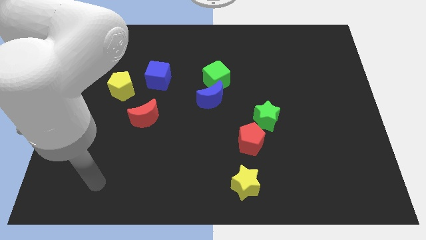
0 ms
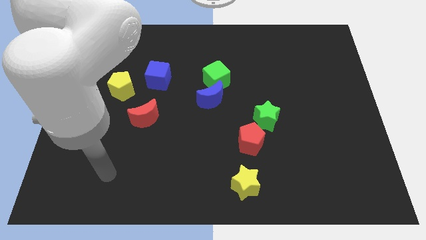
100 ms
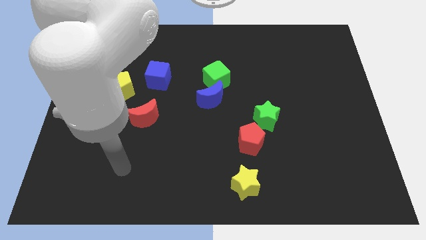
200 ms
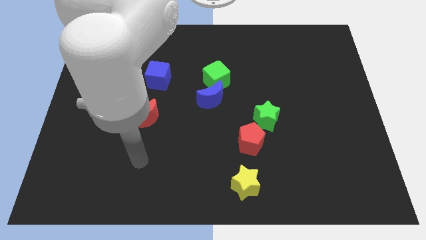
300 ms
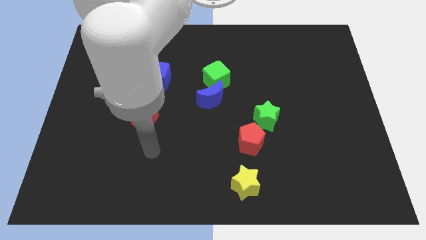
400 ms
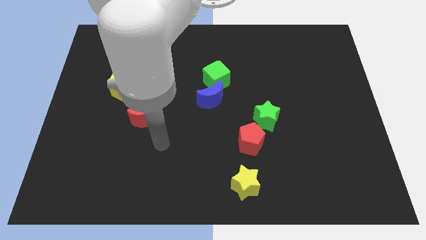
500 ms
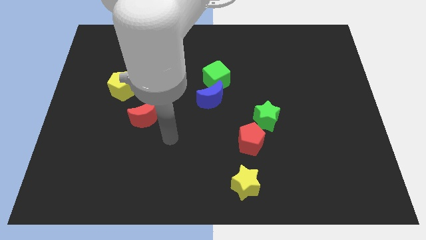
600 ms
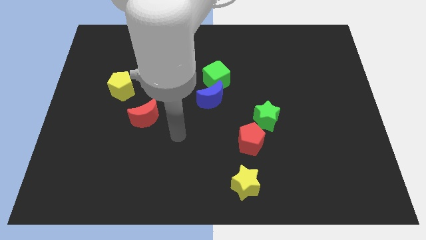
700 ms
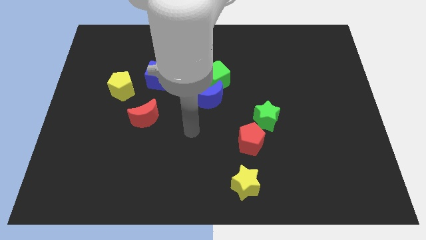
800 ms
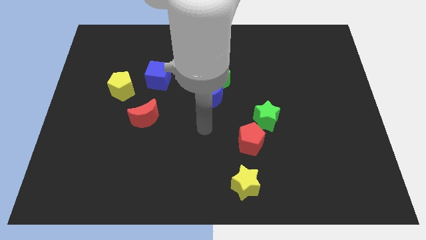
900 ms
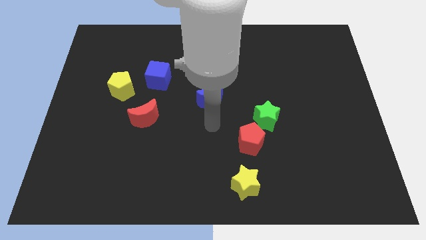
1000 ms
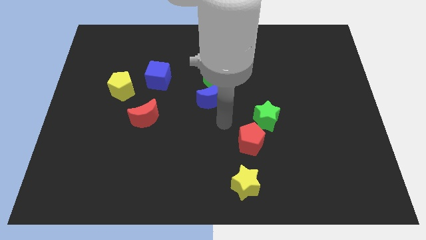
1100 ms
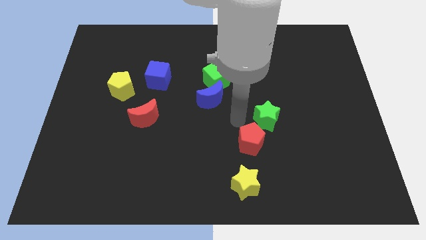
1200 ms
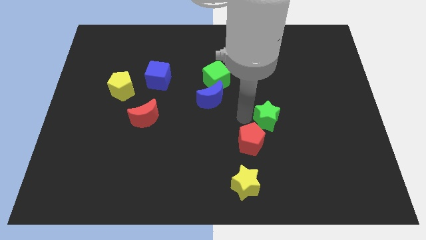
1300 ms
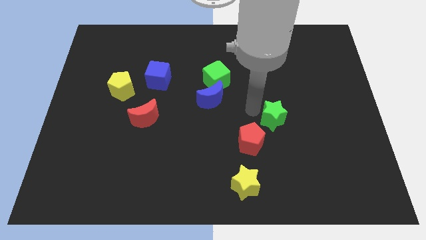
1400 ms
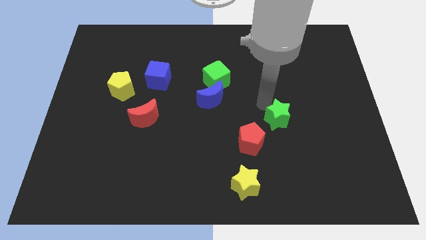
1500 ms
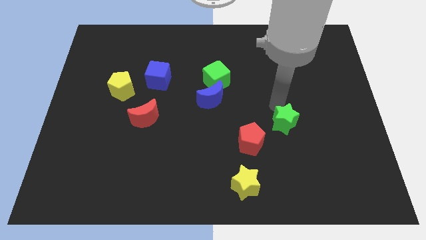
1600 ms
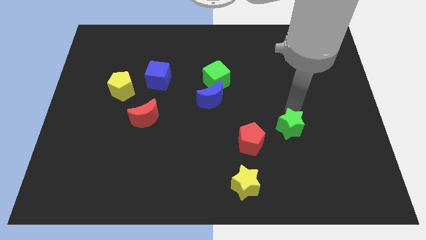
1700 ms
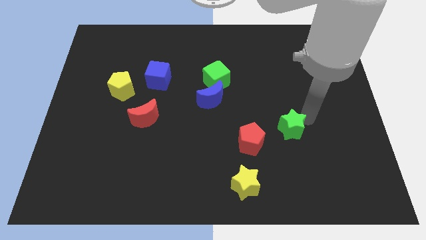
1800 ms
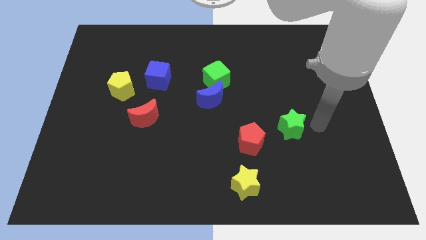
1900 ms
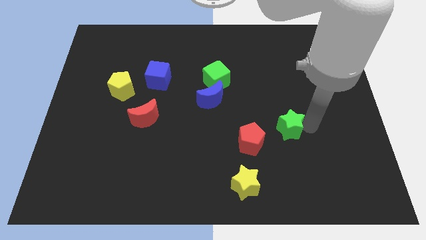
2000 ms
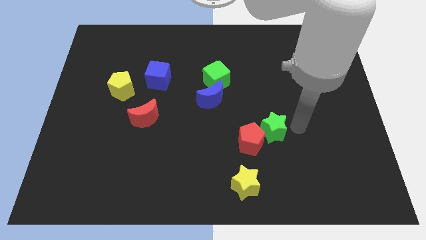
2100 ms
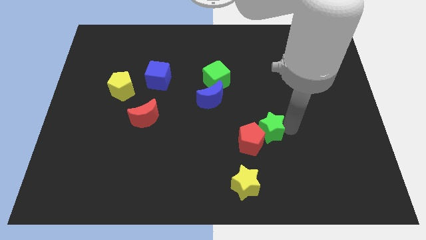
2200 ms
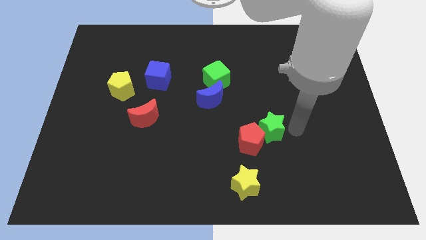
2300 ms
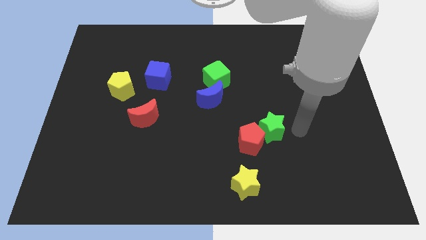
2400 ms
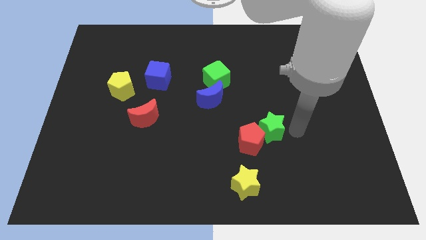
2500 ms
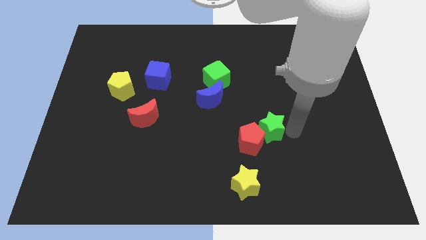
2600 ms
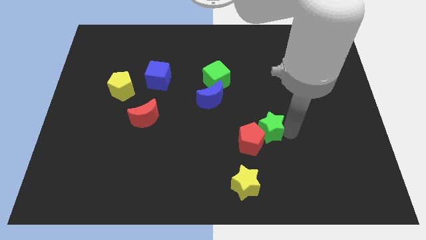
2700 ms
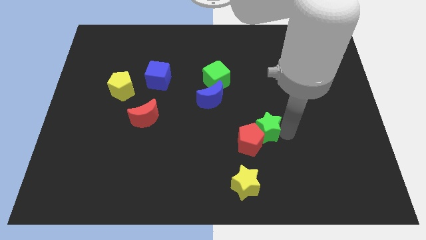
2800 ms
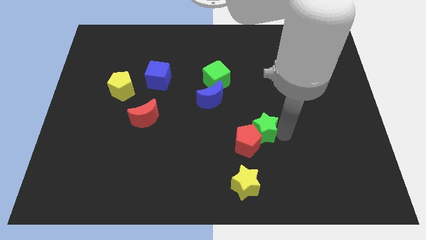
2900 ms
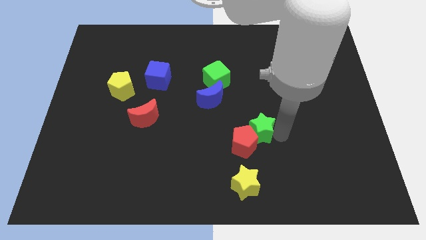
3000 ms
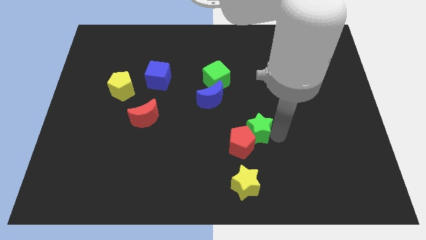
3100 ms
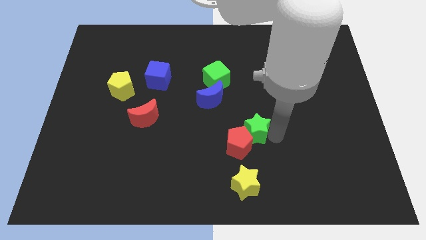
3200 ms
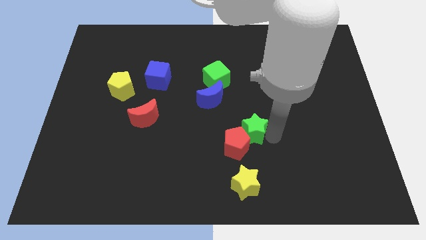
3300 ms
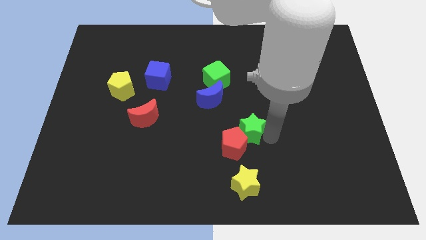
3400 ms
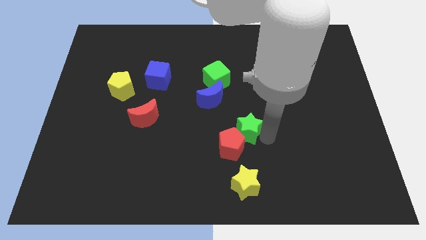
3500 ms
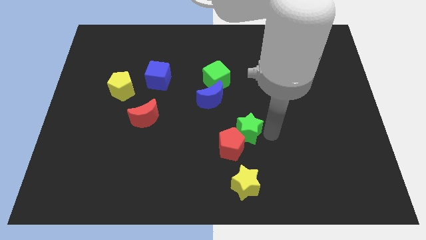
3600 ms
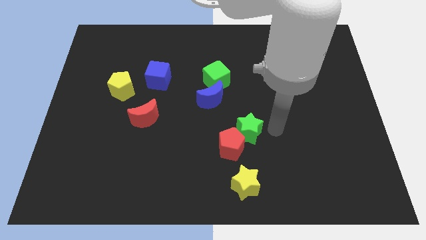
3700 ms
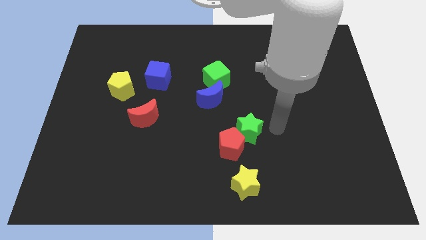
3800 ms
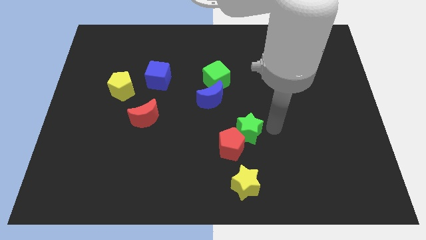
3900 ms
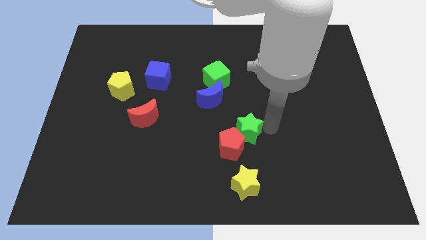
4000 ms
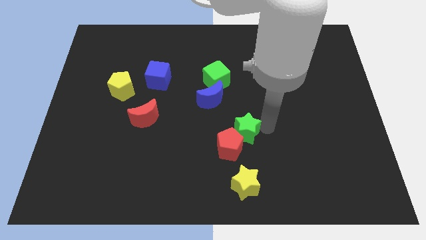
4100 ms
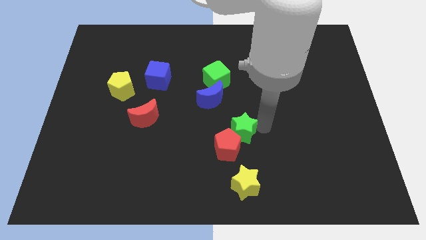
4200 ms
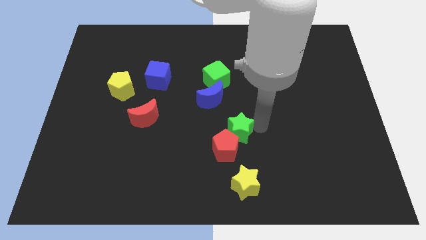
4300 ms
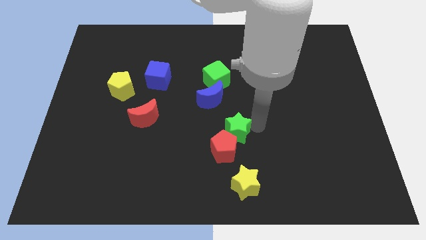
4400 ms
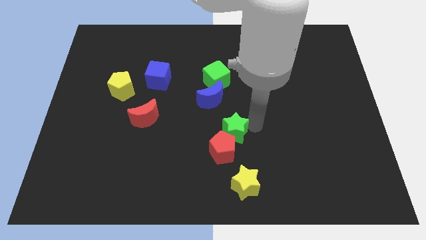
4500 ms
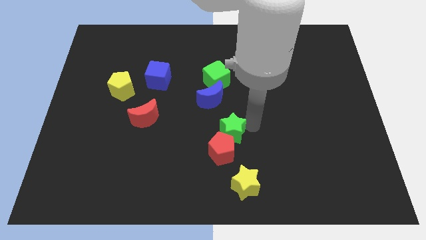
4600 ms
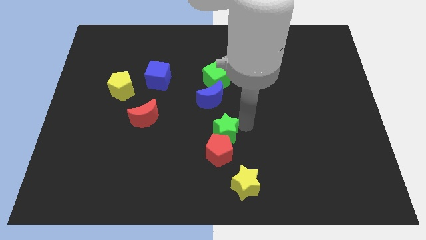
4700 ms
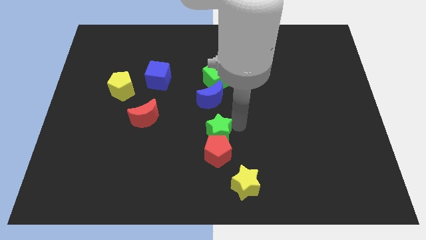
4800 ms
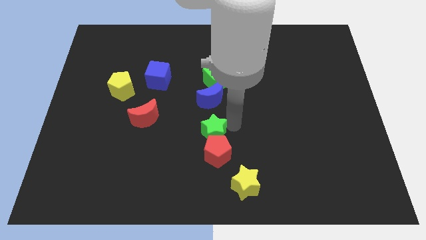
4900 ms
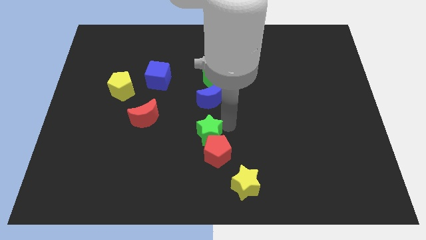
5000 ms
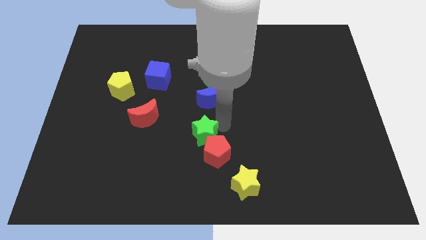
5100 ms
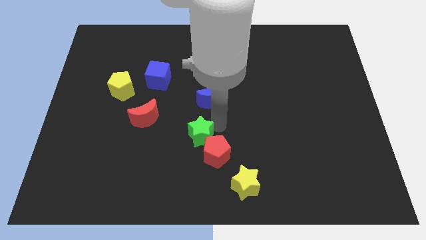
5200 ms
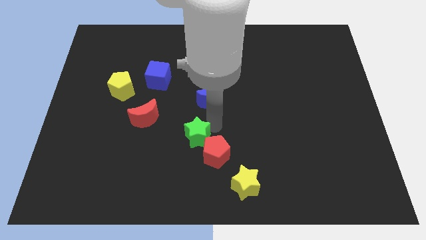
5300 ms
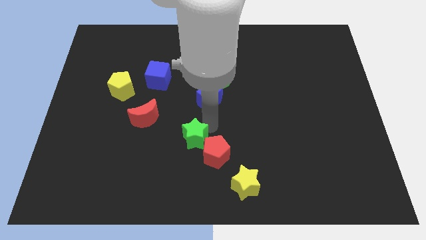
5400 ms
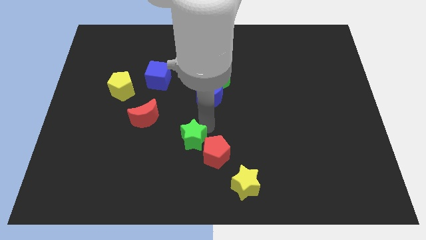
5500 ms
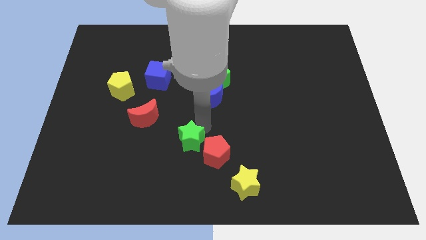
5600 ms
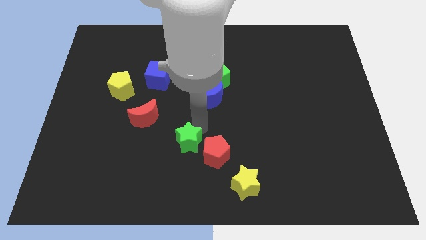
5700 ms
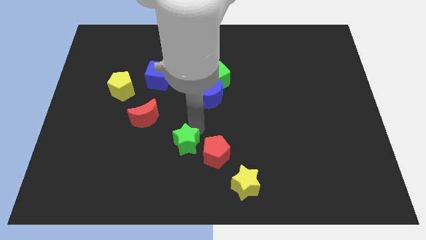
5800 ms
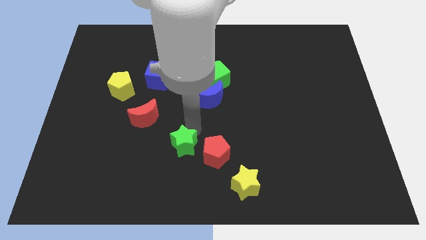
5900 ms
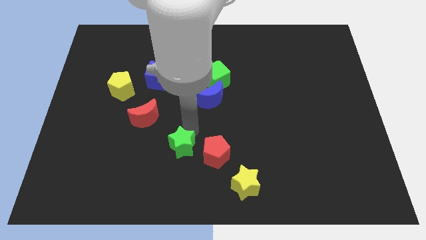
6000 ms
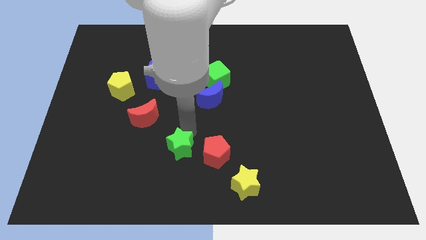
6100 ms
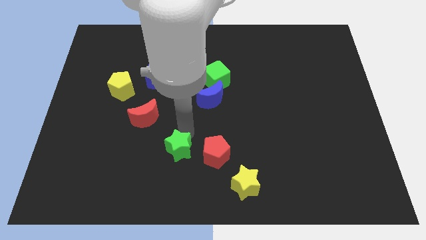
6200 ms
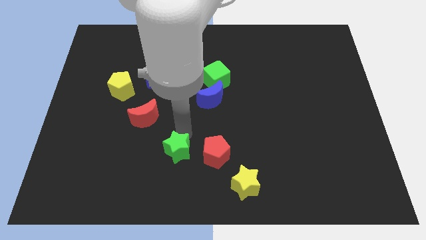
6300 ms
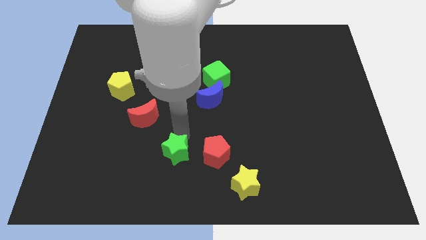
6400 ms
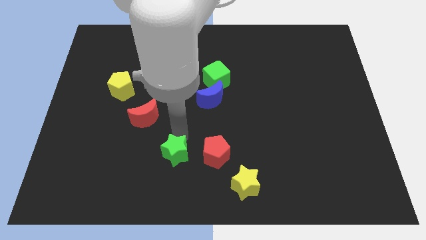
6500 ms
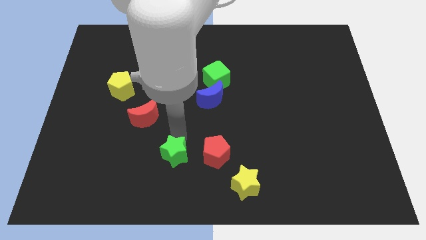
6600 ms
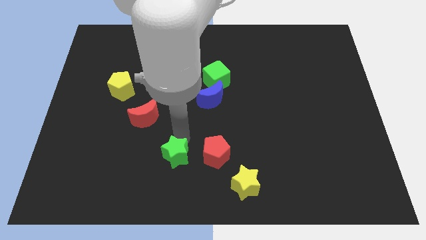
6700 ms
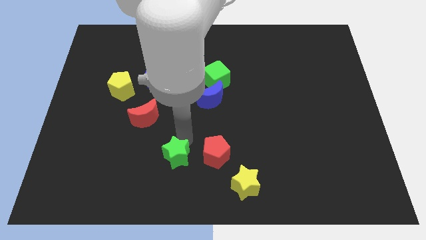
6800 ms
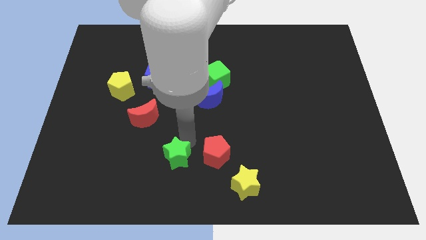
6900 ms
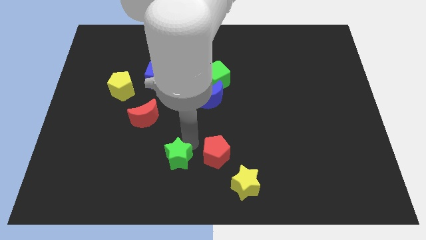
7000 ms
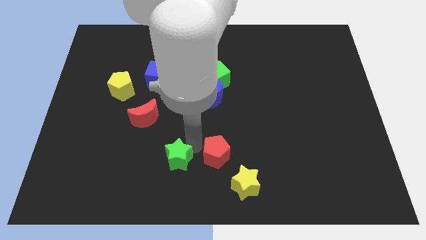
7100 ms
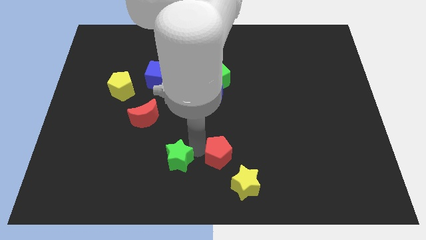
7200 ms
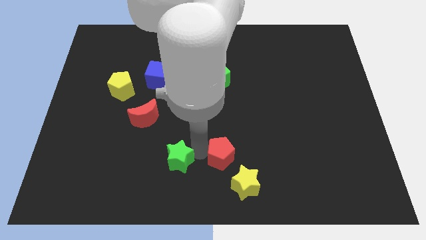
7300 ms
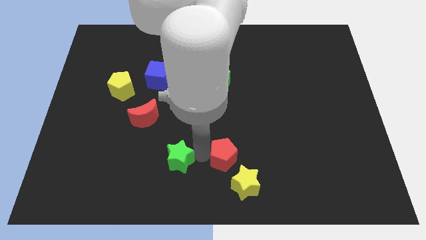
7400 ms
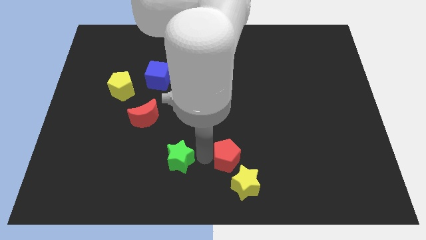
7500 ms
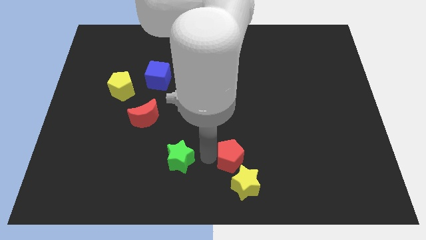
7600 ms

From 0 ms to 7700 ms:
slide the green star just left of the red pentagon
